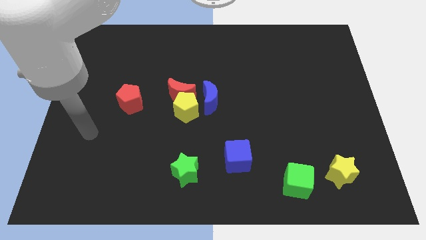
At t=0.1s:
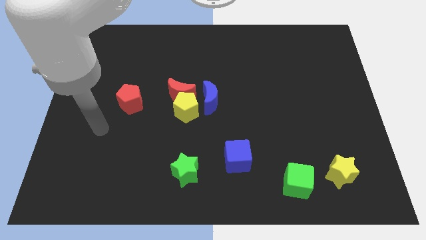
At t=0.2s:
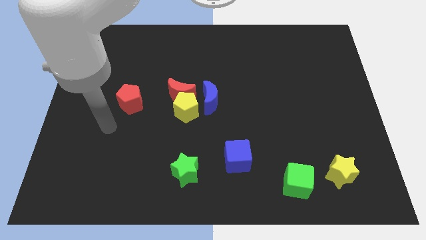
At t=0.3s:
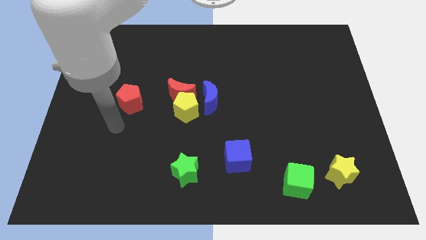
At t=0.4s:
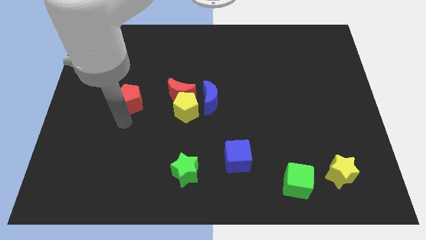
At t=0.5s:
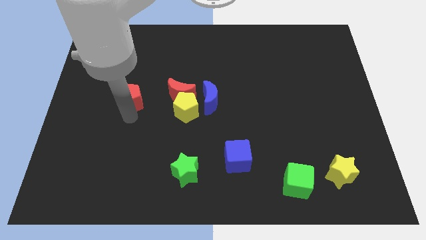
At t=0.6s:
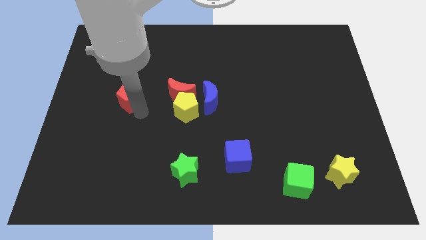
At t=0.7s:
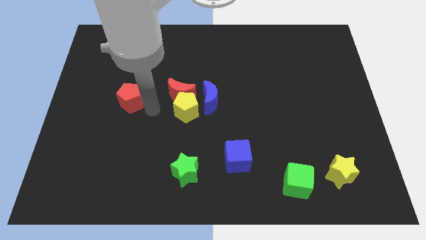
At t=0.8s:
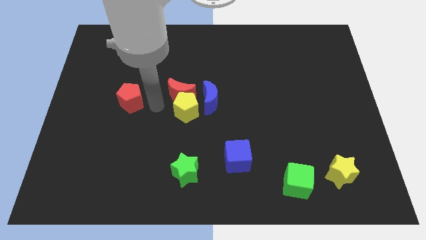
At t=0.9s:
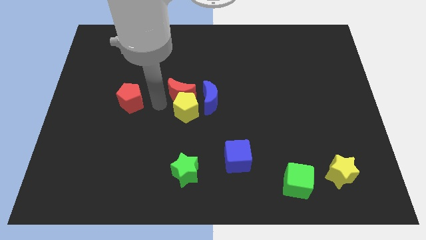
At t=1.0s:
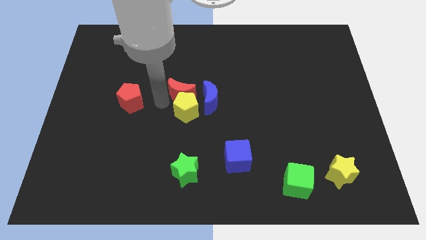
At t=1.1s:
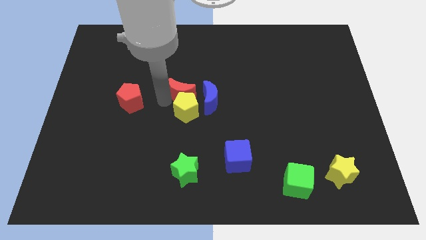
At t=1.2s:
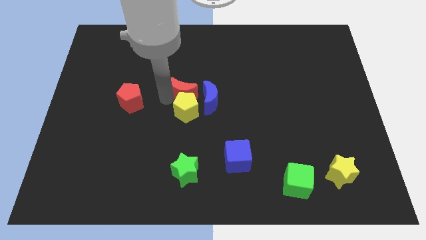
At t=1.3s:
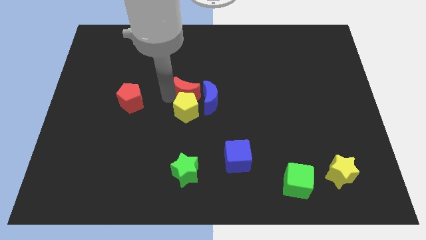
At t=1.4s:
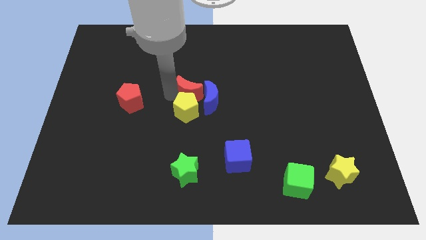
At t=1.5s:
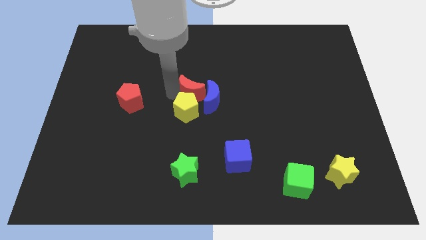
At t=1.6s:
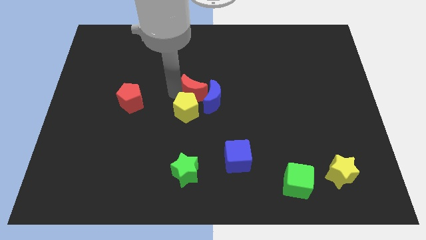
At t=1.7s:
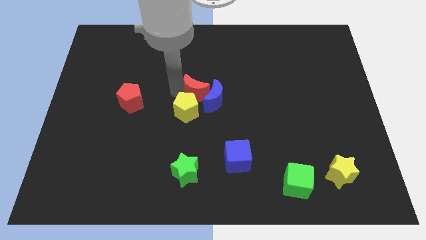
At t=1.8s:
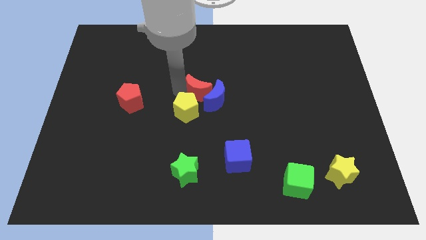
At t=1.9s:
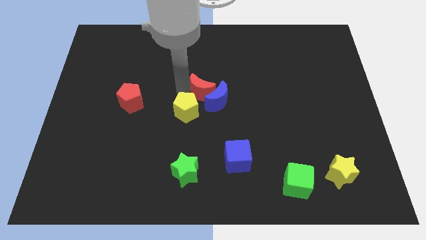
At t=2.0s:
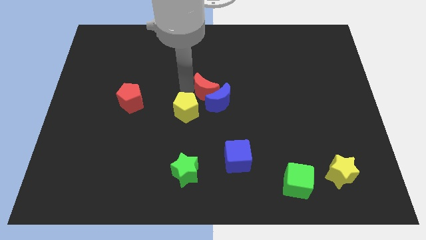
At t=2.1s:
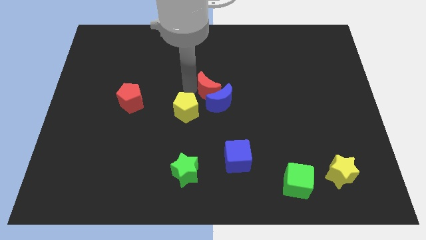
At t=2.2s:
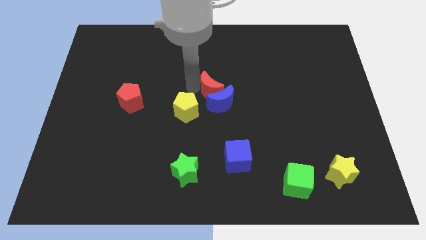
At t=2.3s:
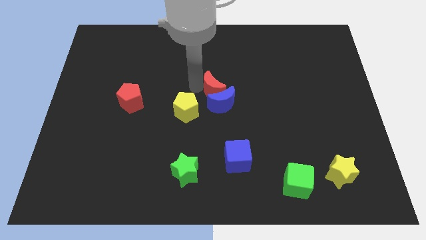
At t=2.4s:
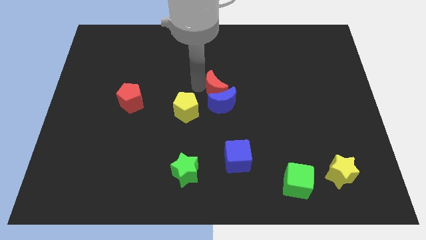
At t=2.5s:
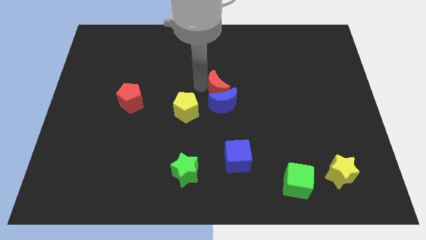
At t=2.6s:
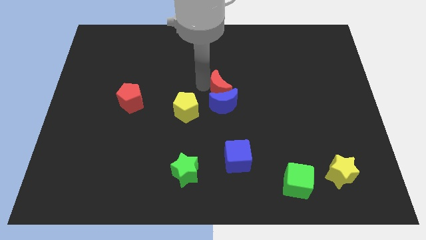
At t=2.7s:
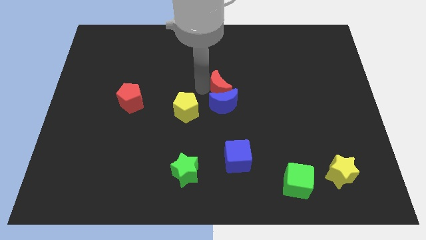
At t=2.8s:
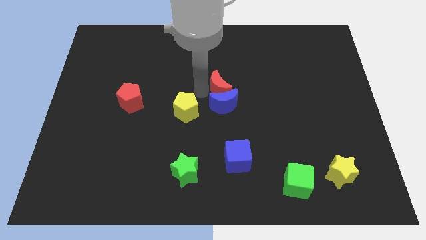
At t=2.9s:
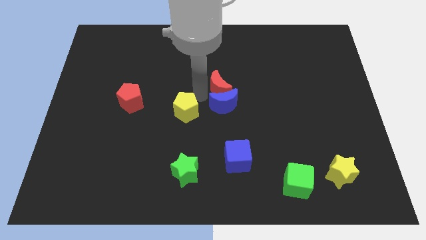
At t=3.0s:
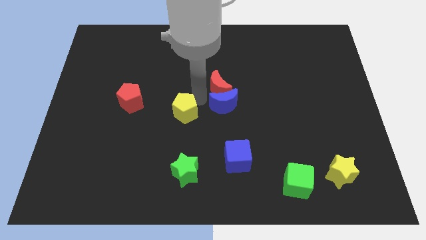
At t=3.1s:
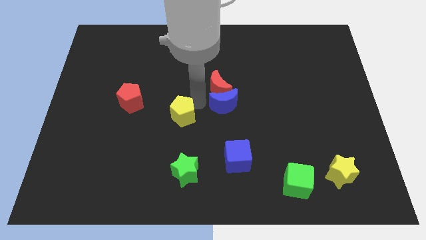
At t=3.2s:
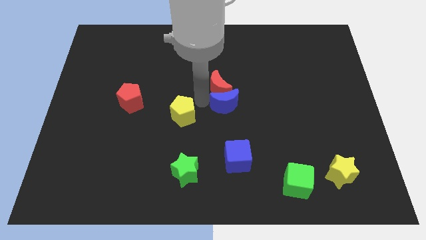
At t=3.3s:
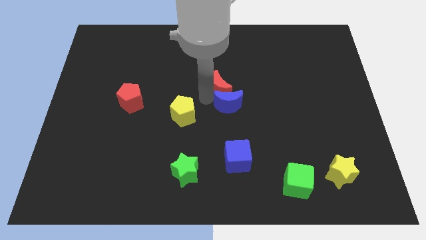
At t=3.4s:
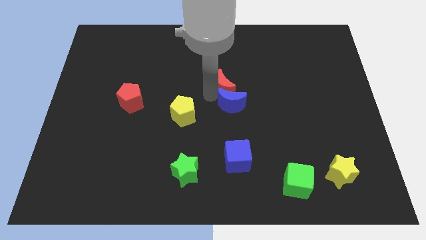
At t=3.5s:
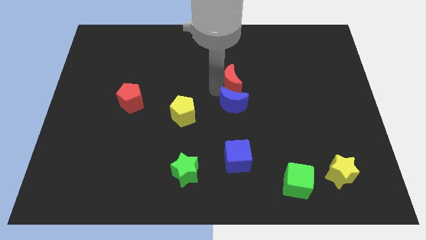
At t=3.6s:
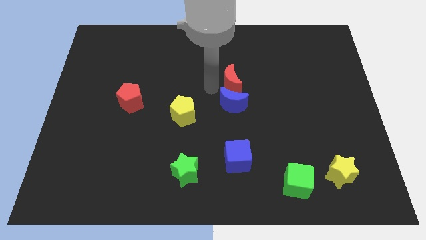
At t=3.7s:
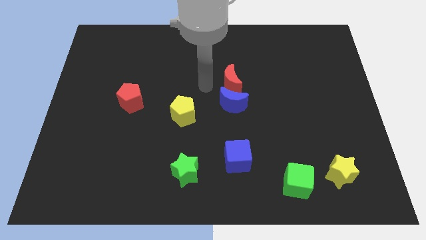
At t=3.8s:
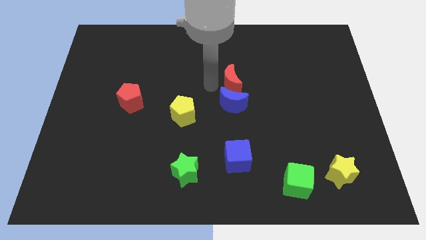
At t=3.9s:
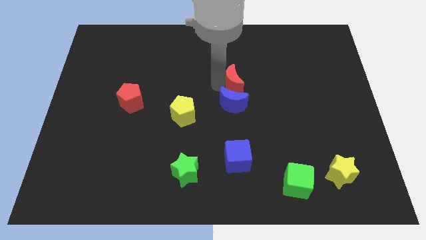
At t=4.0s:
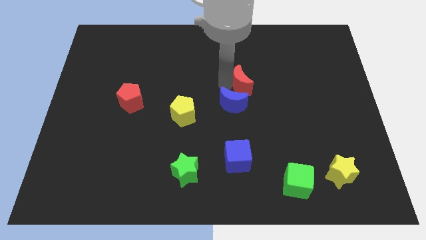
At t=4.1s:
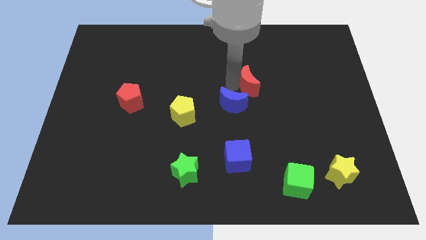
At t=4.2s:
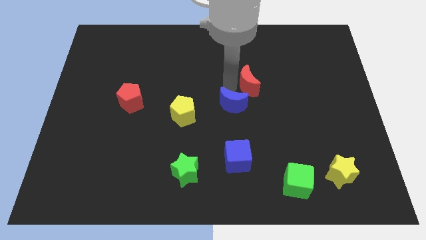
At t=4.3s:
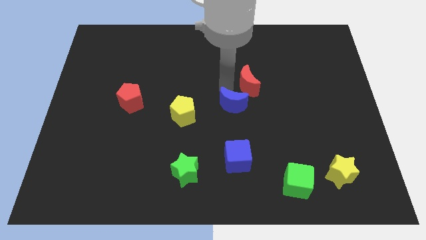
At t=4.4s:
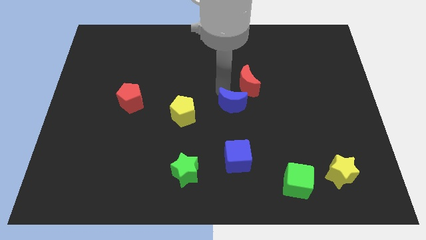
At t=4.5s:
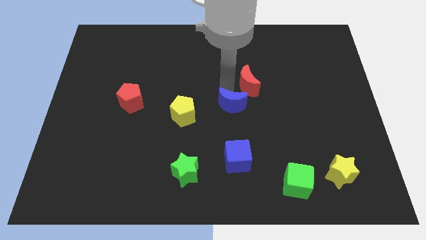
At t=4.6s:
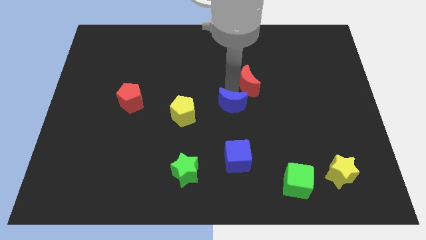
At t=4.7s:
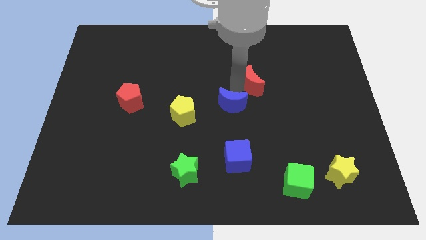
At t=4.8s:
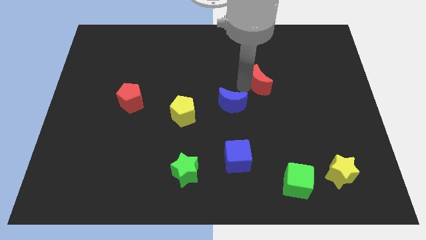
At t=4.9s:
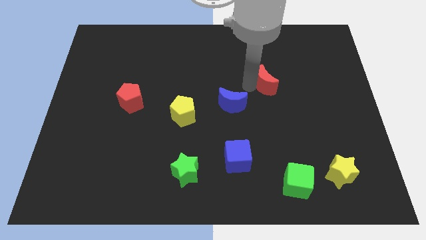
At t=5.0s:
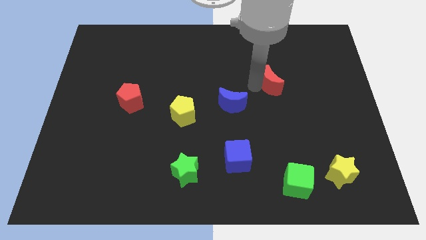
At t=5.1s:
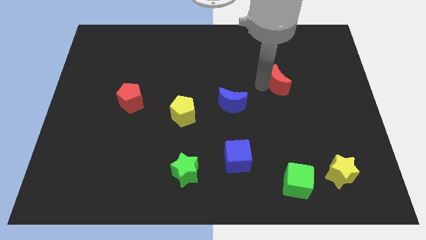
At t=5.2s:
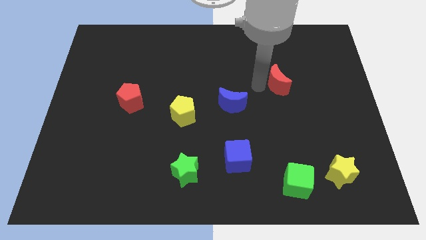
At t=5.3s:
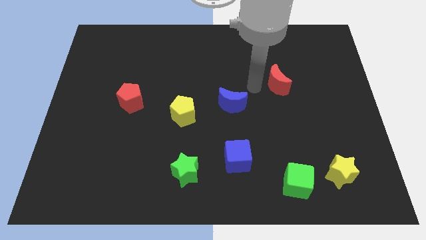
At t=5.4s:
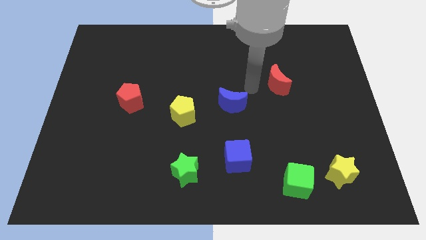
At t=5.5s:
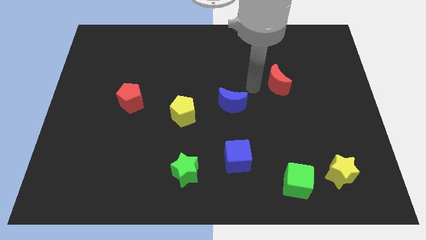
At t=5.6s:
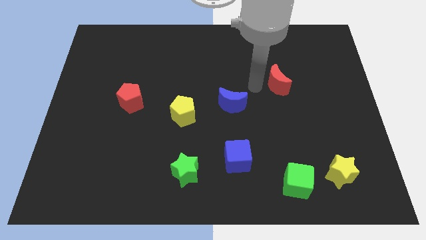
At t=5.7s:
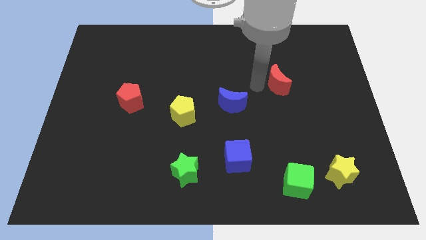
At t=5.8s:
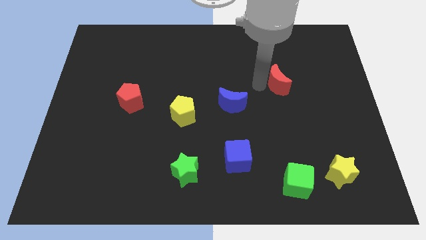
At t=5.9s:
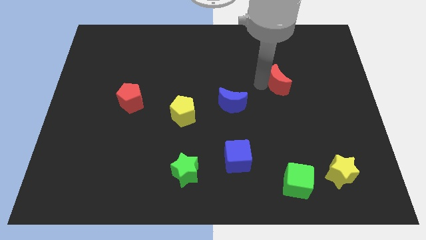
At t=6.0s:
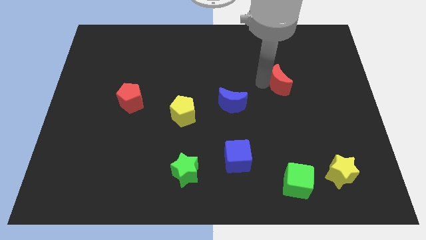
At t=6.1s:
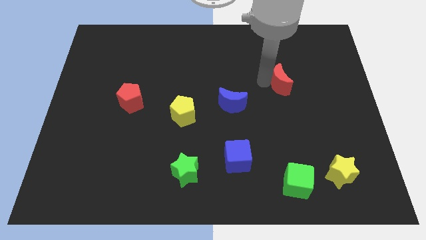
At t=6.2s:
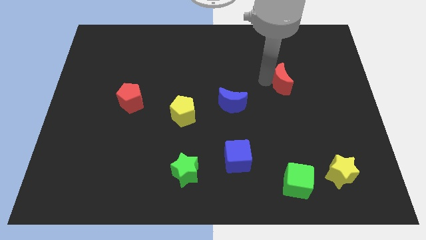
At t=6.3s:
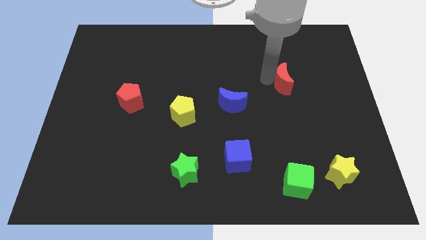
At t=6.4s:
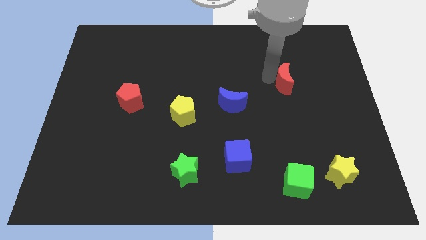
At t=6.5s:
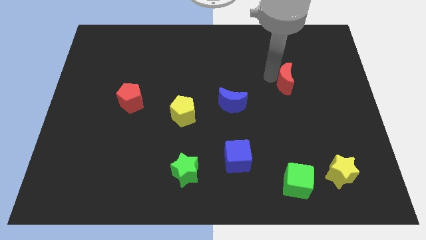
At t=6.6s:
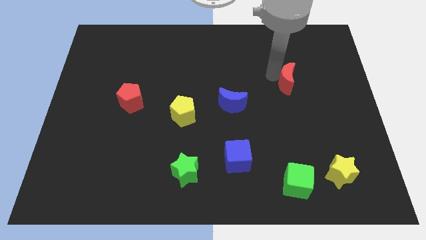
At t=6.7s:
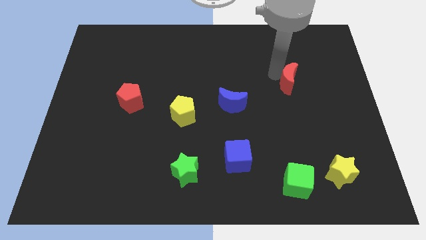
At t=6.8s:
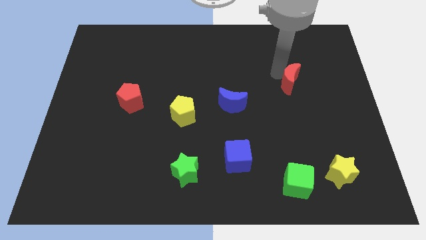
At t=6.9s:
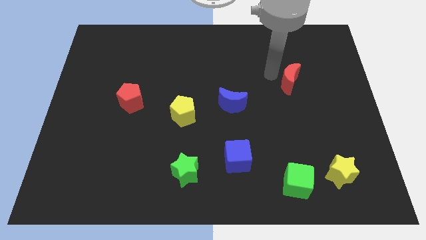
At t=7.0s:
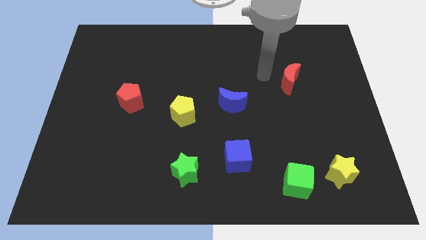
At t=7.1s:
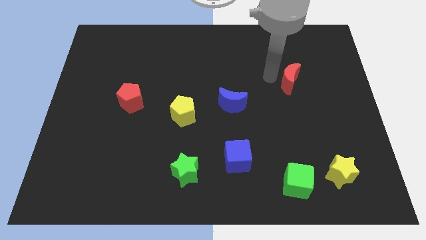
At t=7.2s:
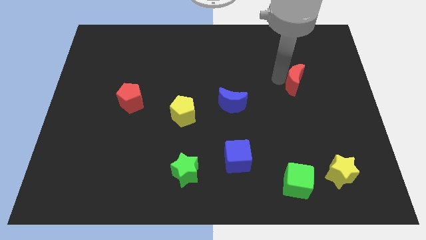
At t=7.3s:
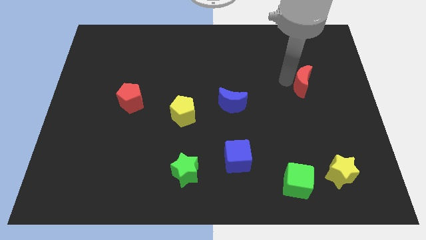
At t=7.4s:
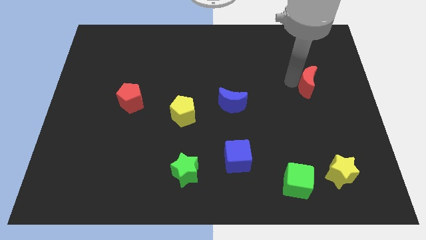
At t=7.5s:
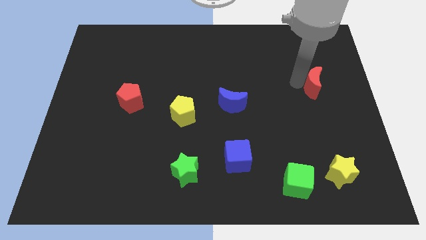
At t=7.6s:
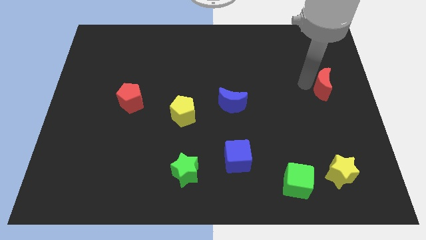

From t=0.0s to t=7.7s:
slide the red moon to the right side of the board
